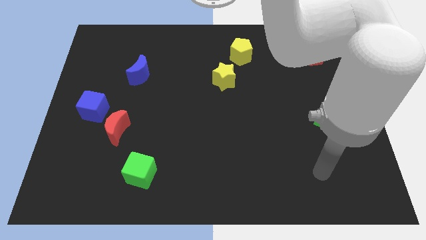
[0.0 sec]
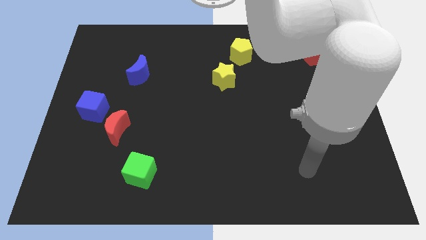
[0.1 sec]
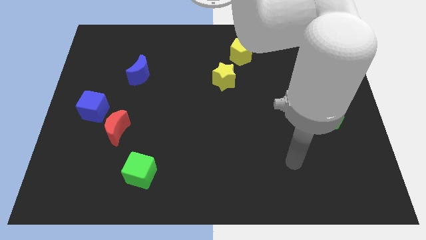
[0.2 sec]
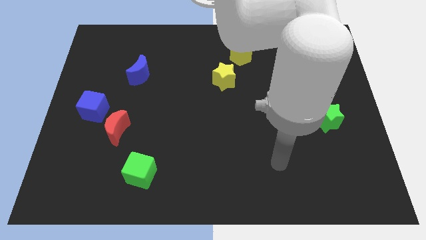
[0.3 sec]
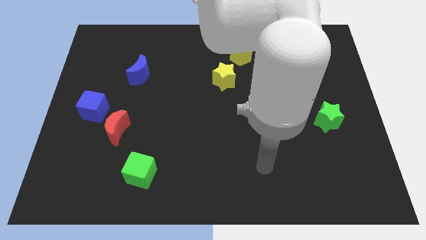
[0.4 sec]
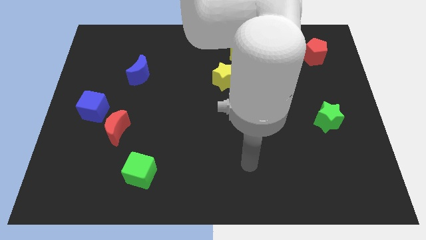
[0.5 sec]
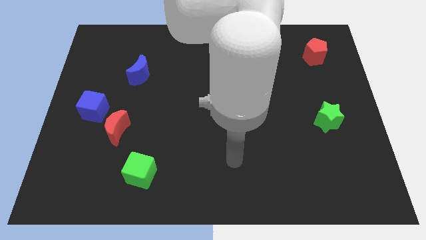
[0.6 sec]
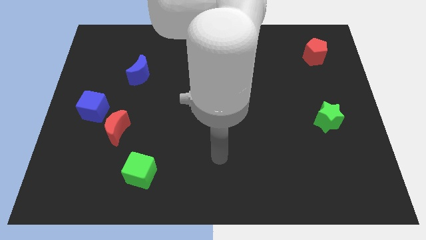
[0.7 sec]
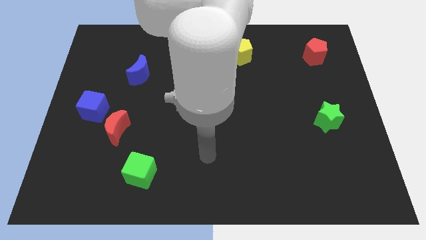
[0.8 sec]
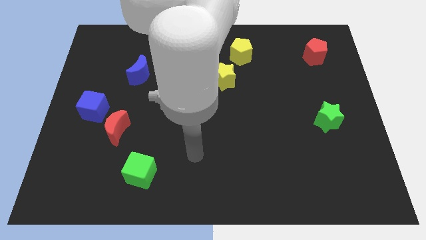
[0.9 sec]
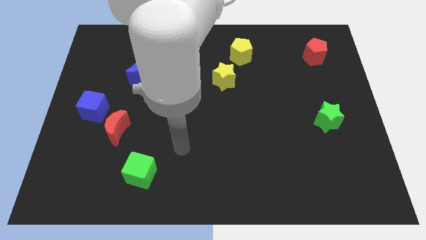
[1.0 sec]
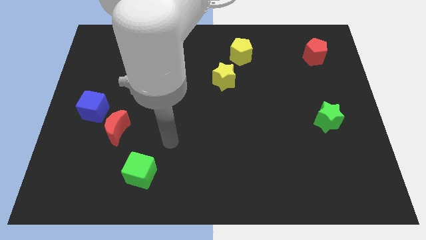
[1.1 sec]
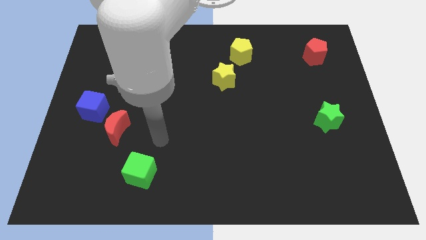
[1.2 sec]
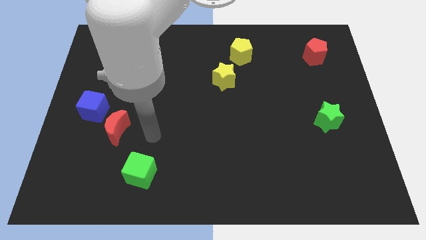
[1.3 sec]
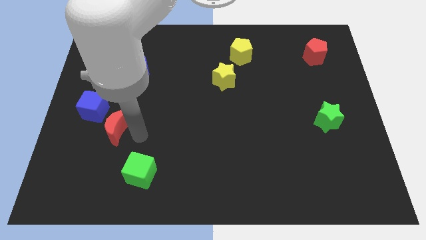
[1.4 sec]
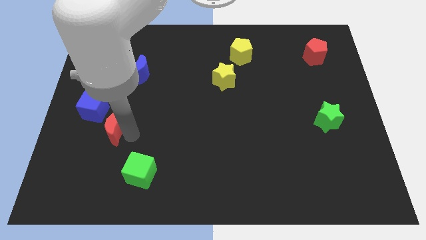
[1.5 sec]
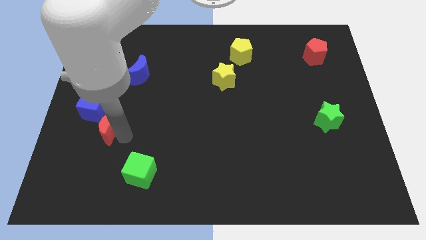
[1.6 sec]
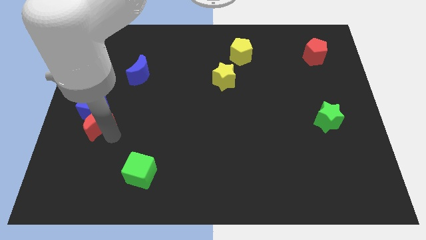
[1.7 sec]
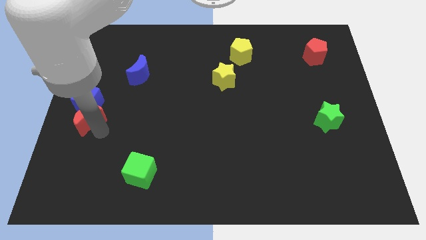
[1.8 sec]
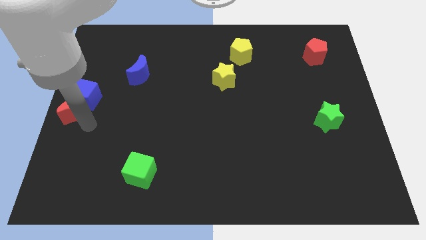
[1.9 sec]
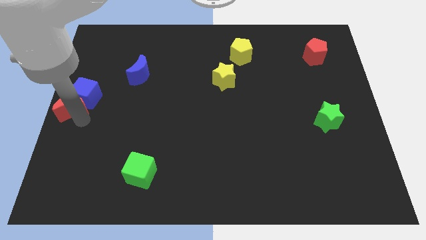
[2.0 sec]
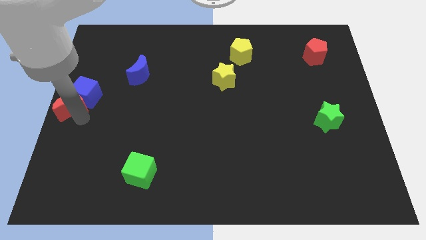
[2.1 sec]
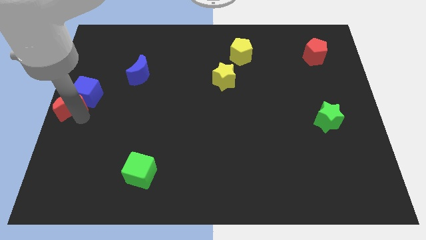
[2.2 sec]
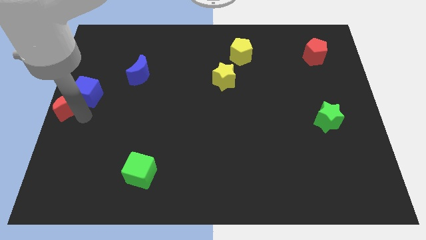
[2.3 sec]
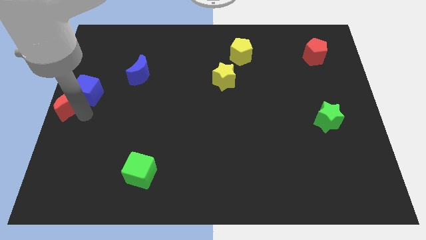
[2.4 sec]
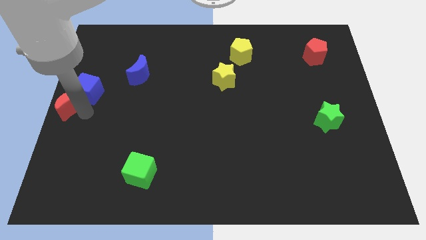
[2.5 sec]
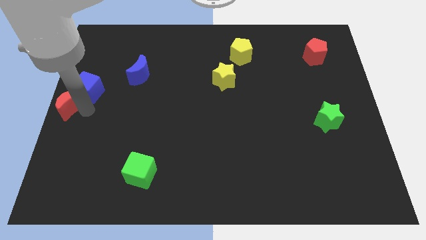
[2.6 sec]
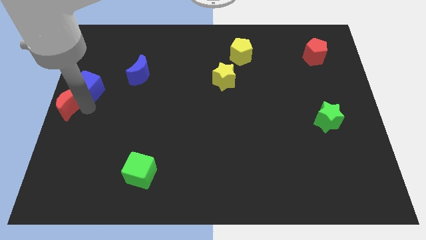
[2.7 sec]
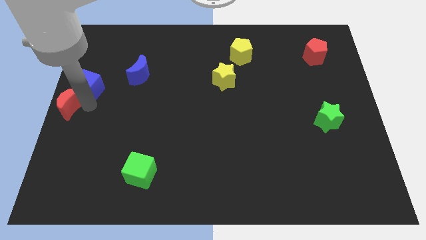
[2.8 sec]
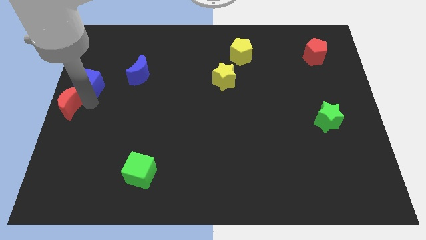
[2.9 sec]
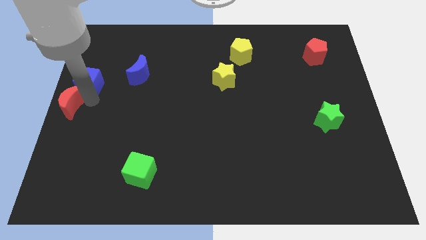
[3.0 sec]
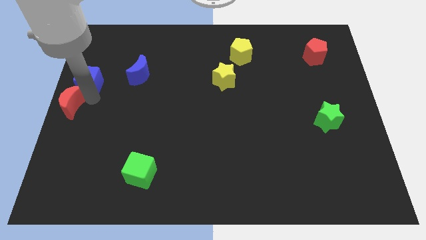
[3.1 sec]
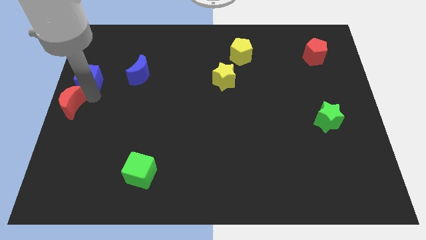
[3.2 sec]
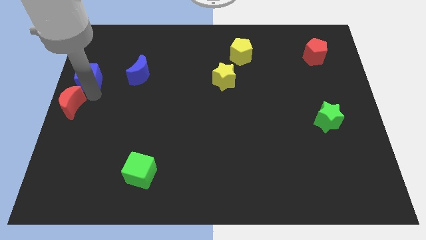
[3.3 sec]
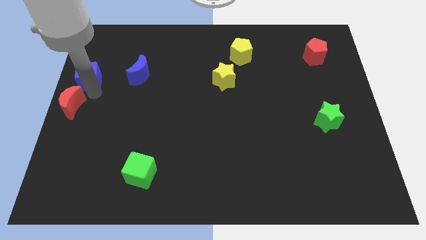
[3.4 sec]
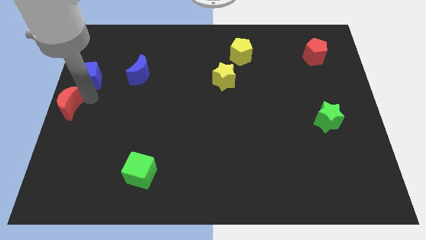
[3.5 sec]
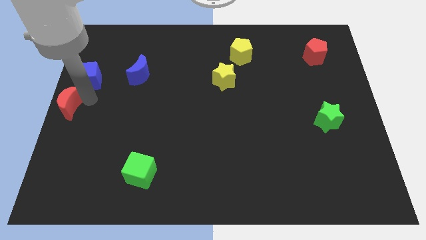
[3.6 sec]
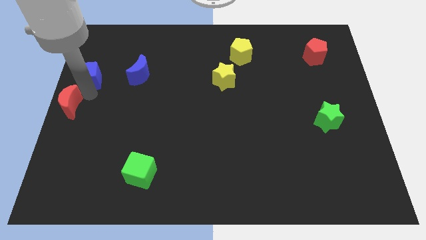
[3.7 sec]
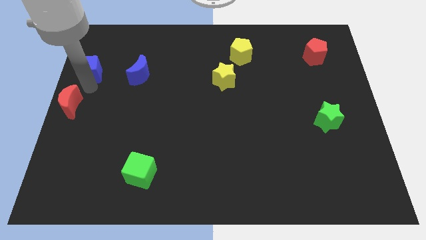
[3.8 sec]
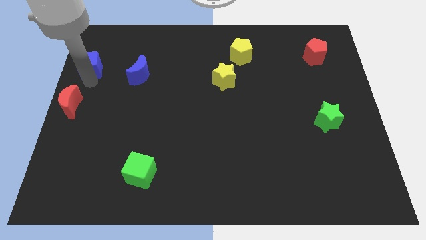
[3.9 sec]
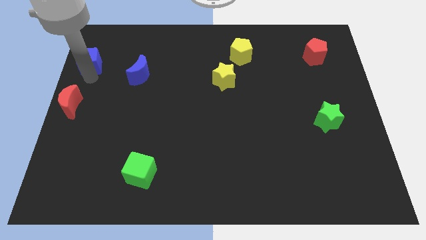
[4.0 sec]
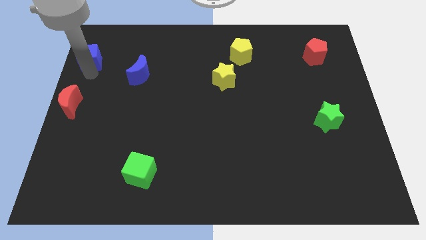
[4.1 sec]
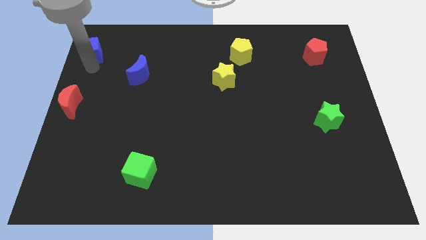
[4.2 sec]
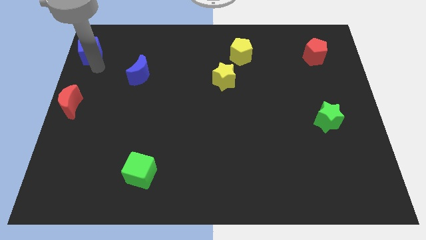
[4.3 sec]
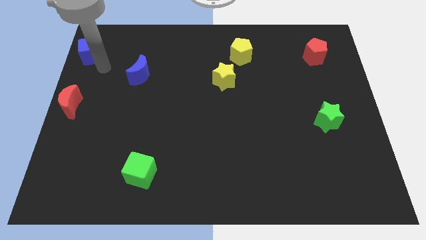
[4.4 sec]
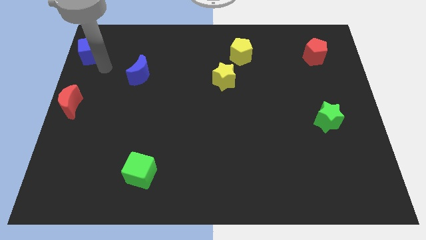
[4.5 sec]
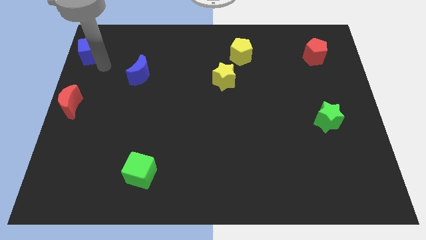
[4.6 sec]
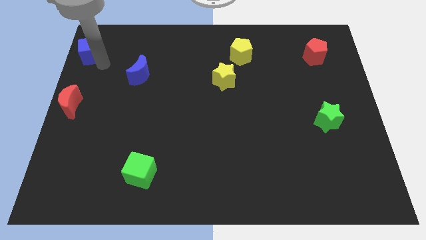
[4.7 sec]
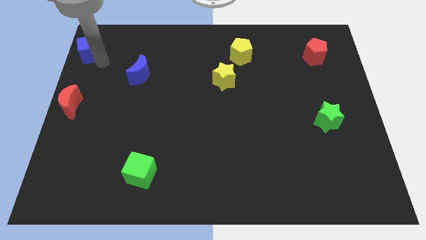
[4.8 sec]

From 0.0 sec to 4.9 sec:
slide the blue cube to the top left corner

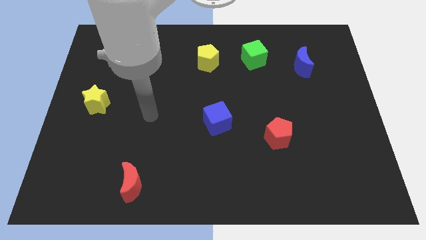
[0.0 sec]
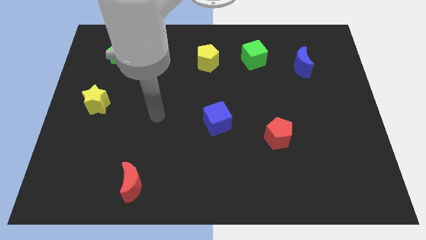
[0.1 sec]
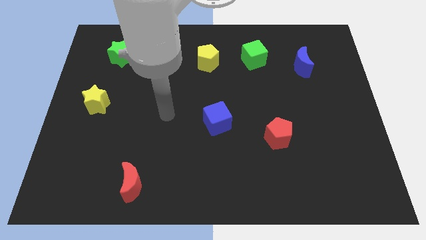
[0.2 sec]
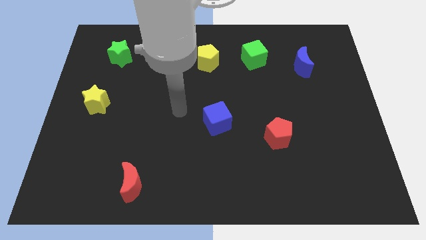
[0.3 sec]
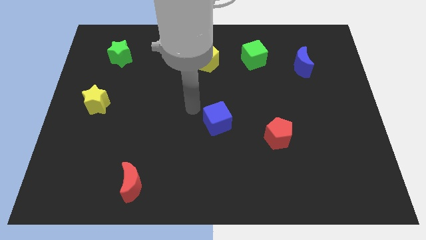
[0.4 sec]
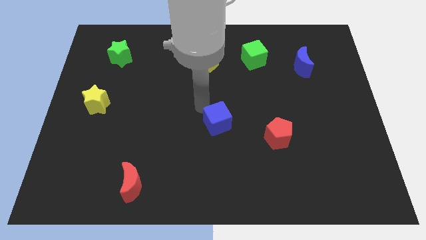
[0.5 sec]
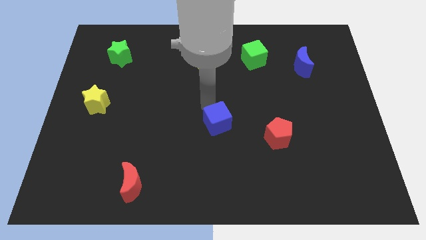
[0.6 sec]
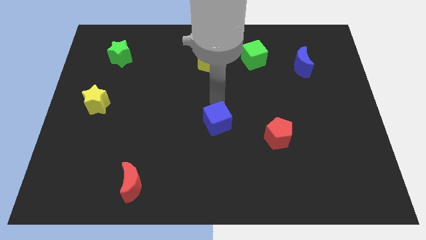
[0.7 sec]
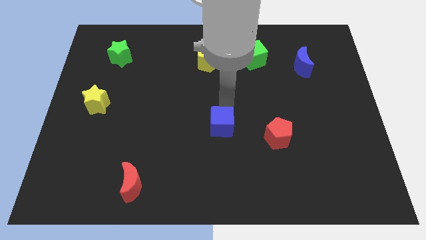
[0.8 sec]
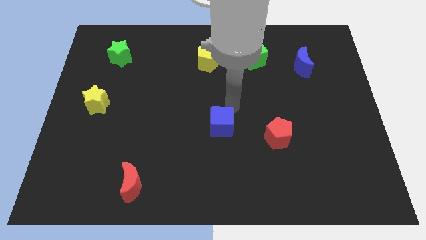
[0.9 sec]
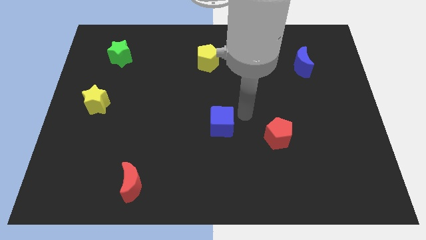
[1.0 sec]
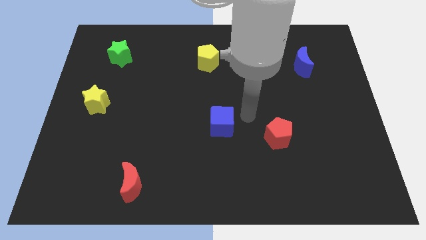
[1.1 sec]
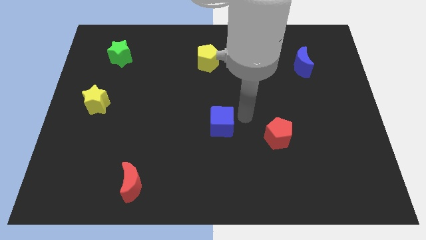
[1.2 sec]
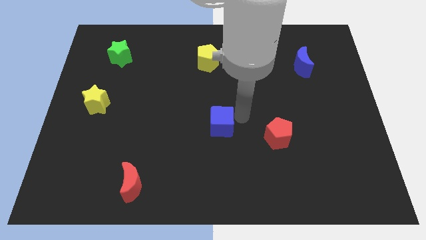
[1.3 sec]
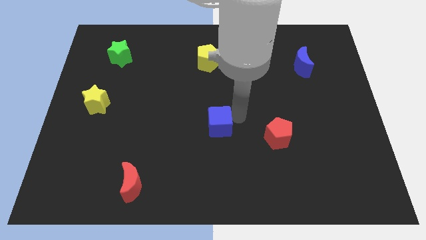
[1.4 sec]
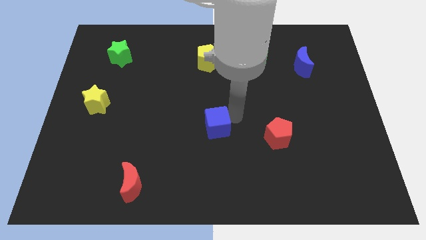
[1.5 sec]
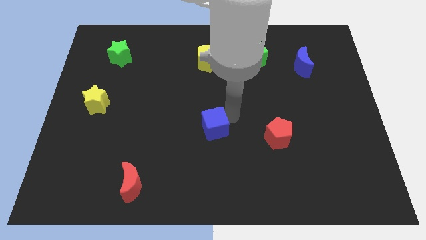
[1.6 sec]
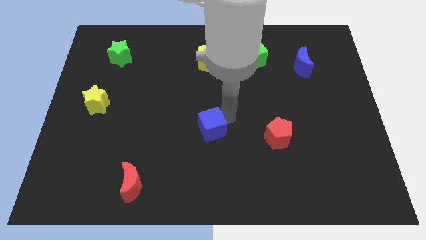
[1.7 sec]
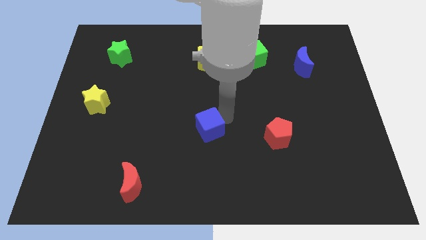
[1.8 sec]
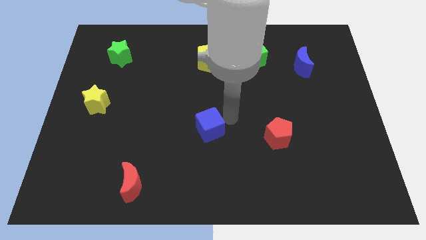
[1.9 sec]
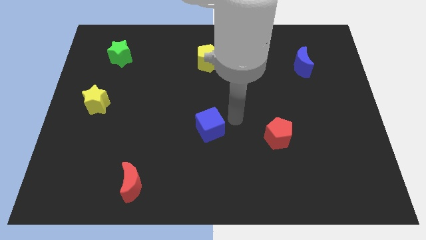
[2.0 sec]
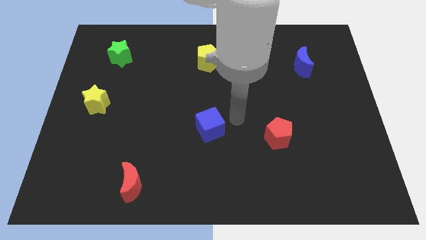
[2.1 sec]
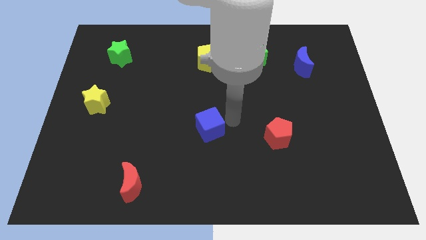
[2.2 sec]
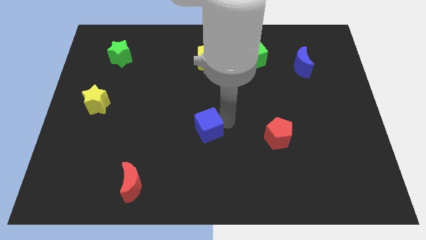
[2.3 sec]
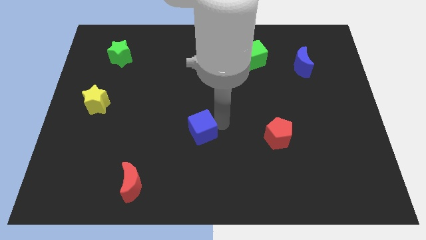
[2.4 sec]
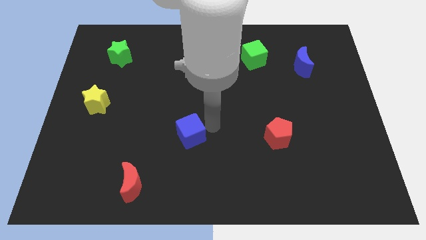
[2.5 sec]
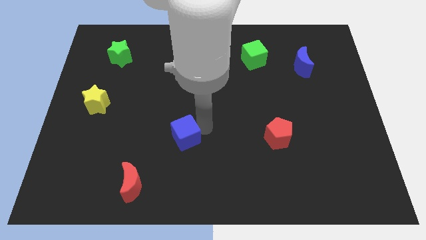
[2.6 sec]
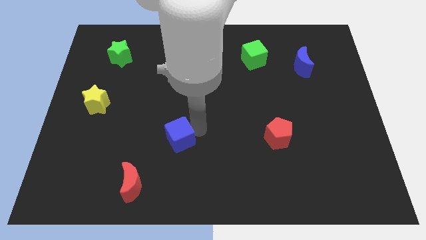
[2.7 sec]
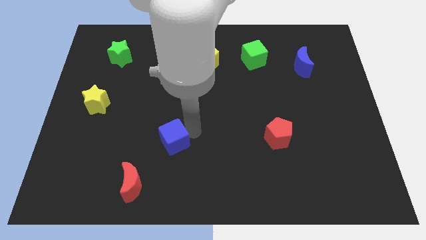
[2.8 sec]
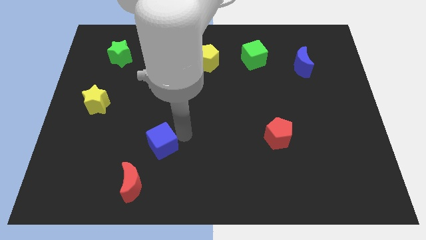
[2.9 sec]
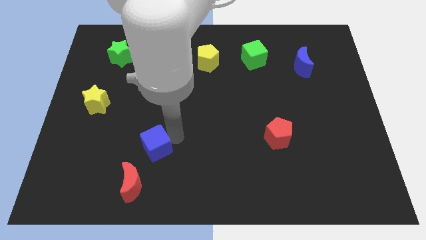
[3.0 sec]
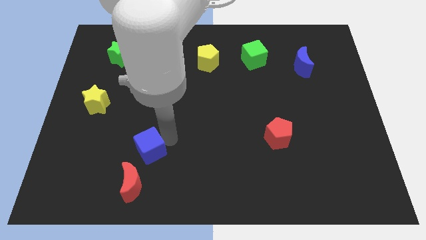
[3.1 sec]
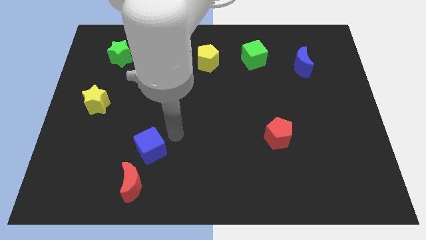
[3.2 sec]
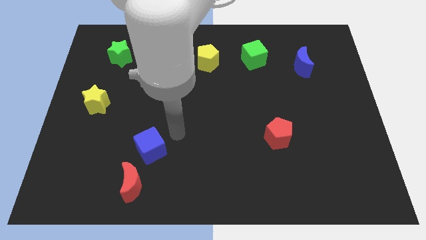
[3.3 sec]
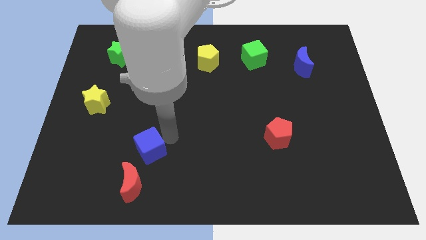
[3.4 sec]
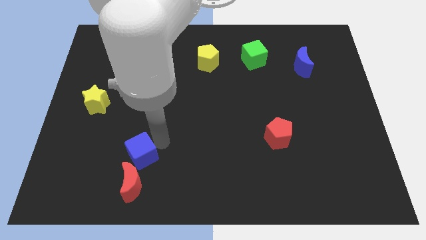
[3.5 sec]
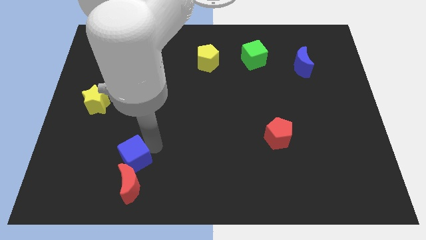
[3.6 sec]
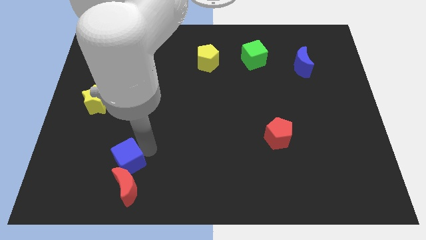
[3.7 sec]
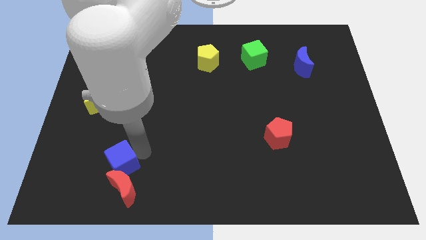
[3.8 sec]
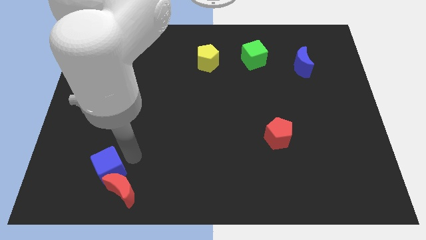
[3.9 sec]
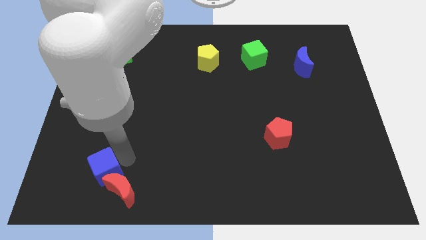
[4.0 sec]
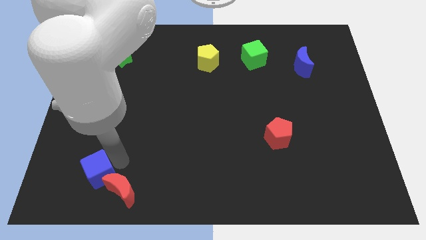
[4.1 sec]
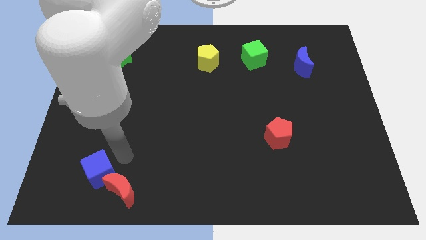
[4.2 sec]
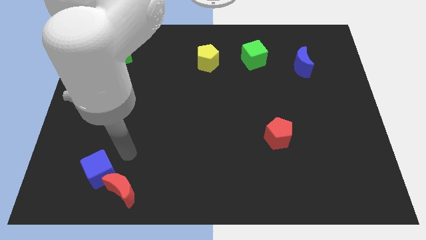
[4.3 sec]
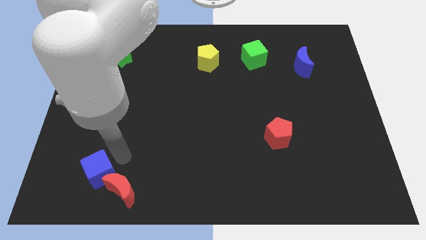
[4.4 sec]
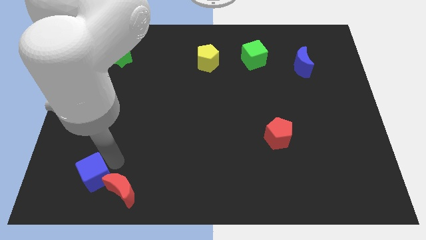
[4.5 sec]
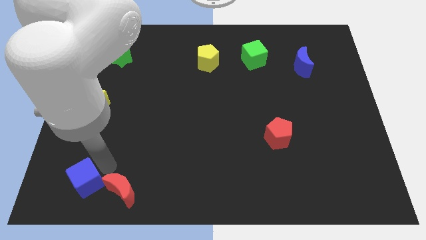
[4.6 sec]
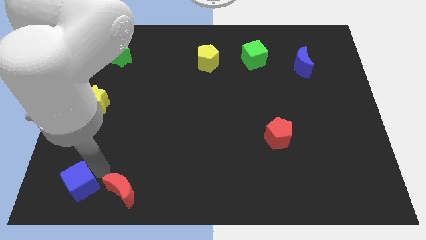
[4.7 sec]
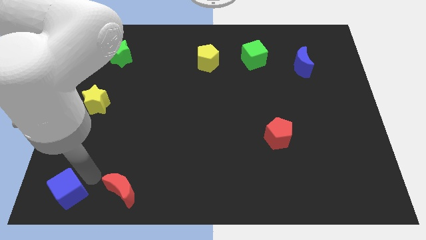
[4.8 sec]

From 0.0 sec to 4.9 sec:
push the blue cube to the bottom left
